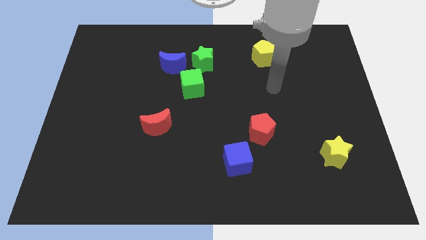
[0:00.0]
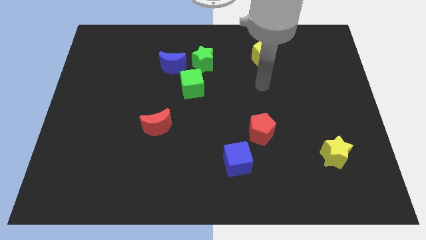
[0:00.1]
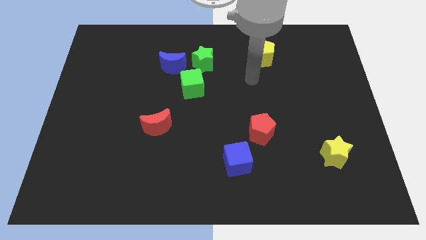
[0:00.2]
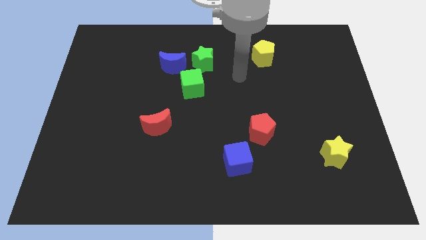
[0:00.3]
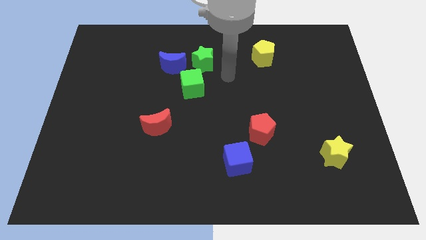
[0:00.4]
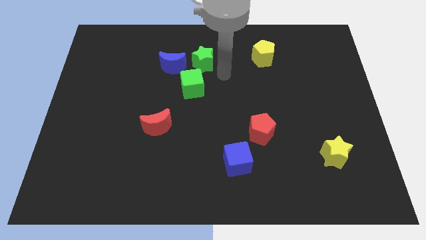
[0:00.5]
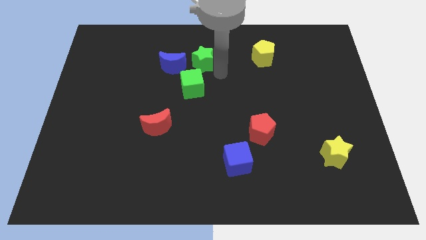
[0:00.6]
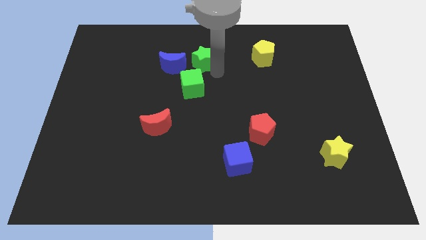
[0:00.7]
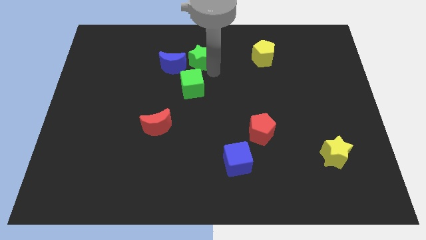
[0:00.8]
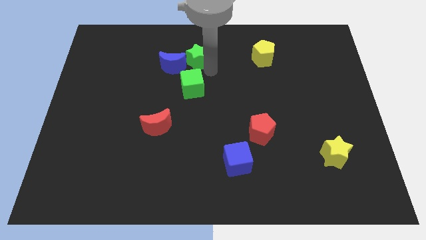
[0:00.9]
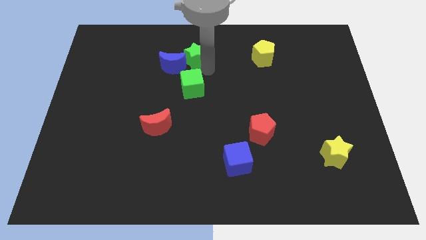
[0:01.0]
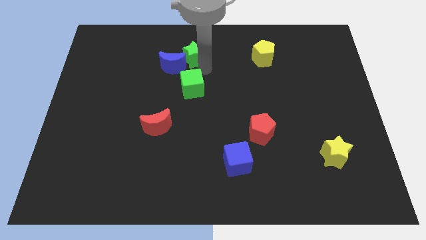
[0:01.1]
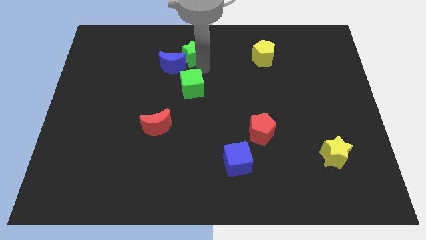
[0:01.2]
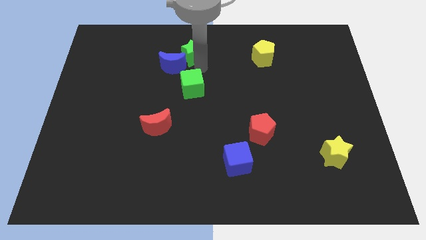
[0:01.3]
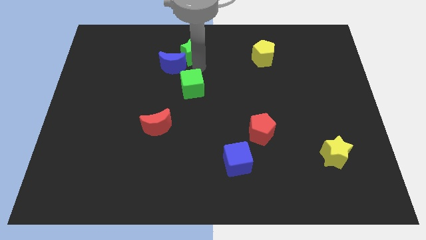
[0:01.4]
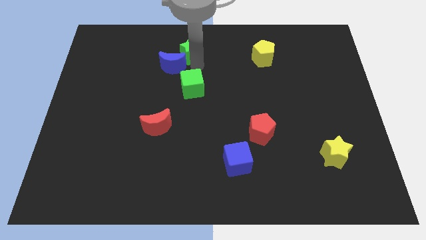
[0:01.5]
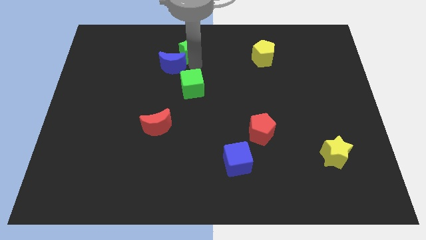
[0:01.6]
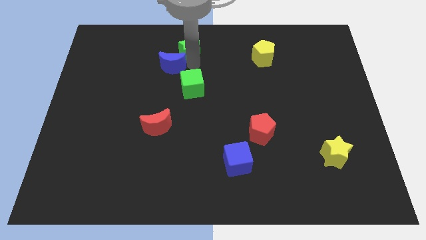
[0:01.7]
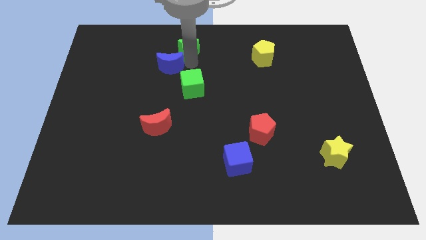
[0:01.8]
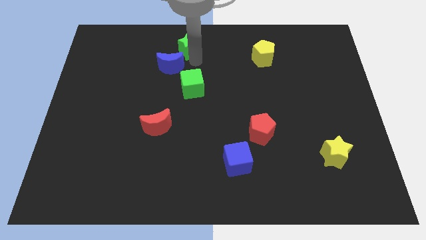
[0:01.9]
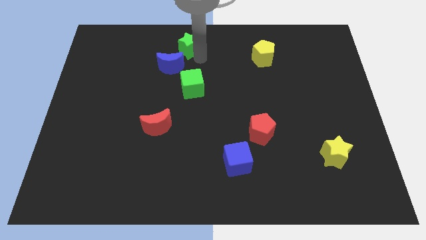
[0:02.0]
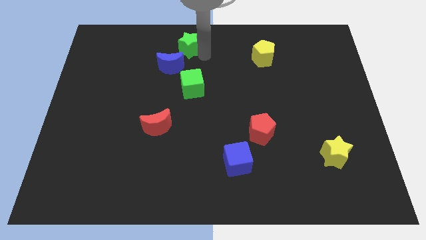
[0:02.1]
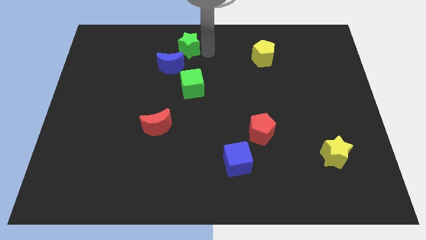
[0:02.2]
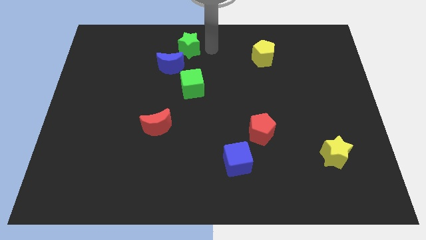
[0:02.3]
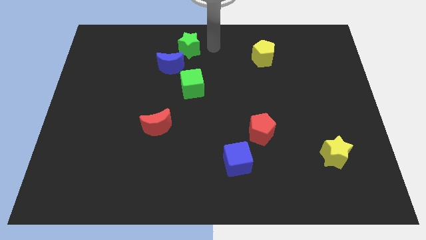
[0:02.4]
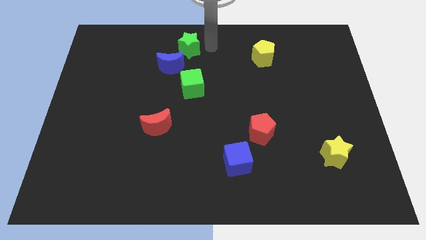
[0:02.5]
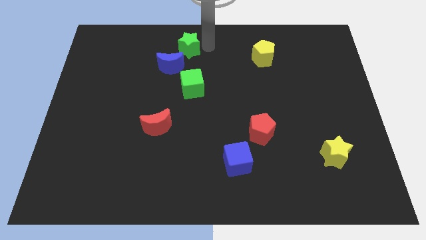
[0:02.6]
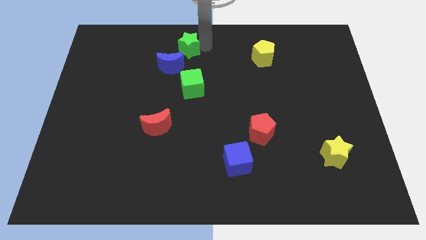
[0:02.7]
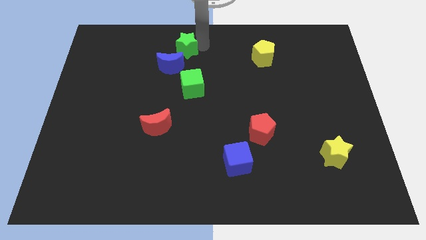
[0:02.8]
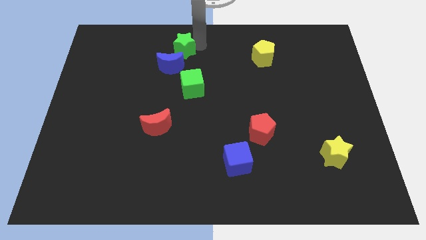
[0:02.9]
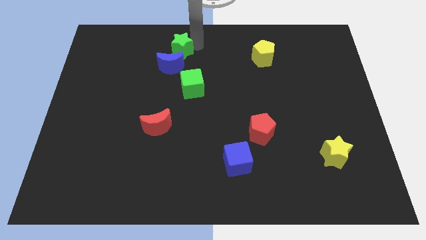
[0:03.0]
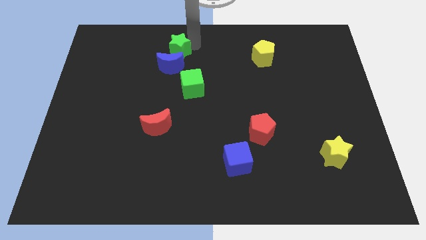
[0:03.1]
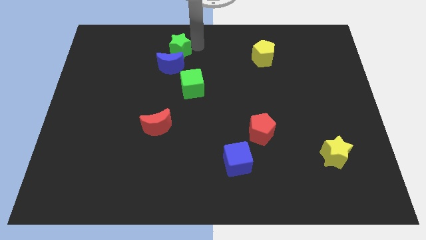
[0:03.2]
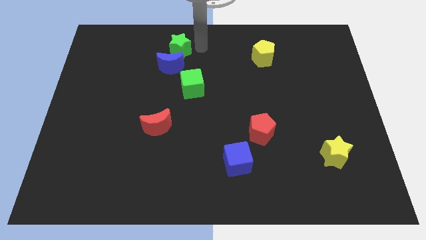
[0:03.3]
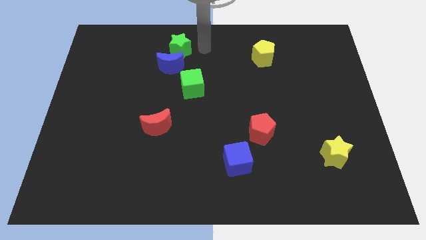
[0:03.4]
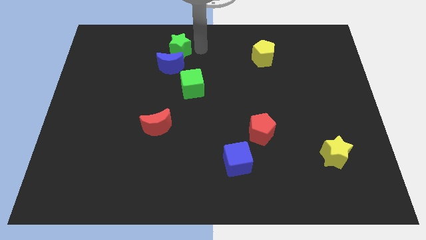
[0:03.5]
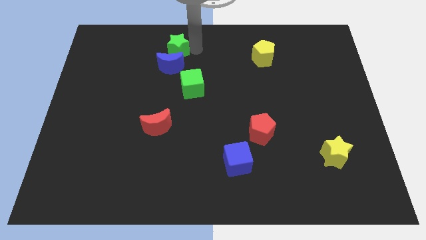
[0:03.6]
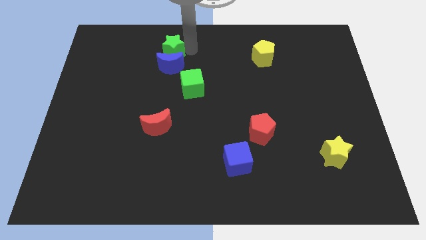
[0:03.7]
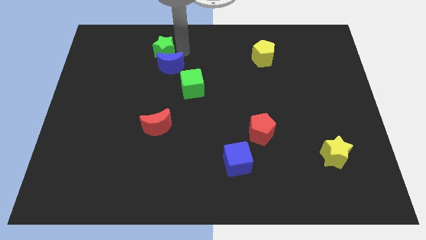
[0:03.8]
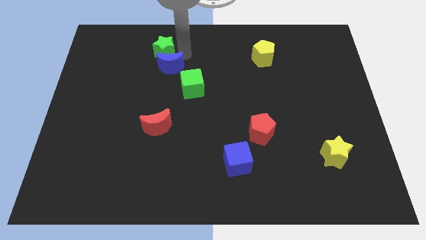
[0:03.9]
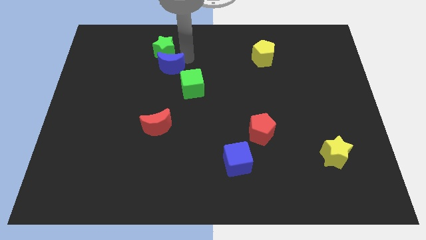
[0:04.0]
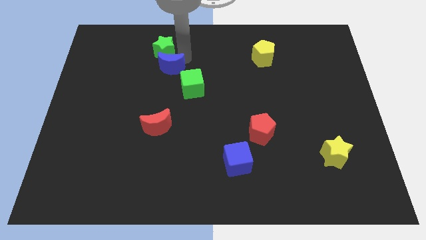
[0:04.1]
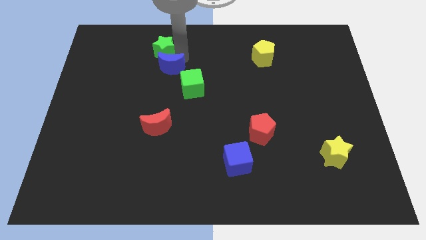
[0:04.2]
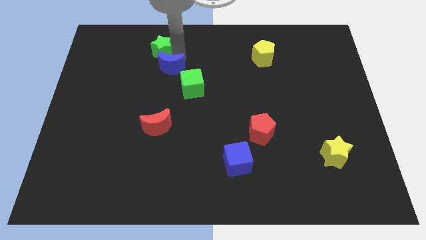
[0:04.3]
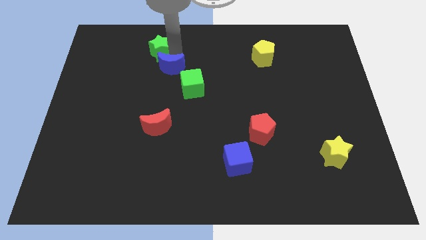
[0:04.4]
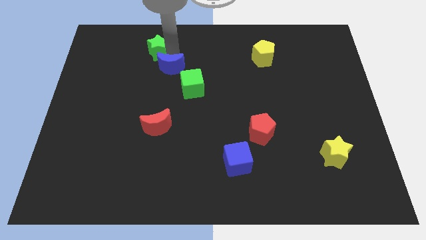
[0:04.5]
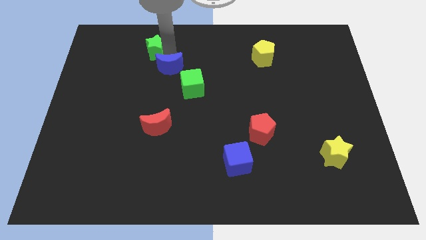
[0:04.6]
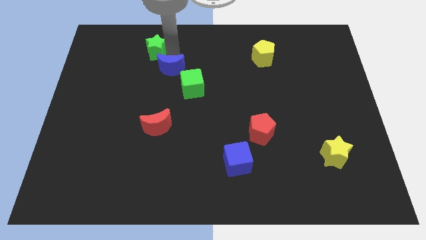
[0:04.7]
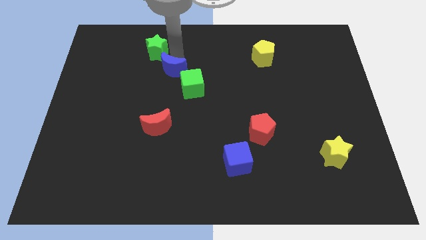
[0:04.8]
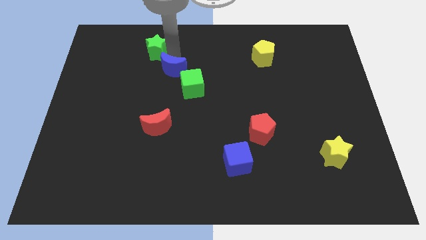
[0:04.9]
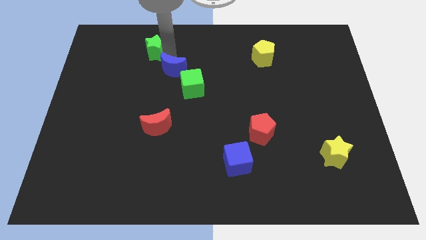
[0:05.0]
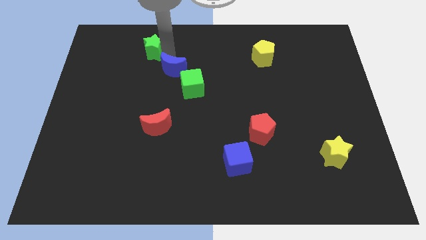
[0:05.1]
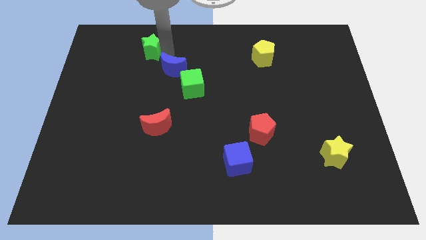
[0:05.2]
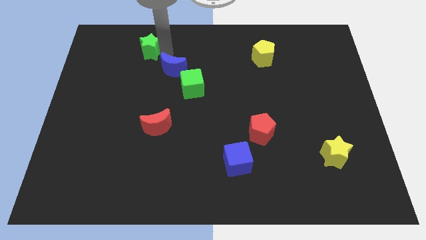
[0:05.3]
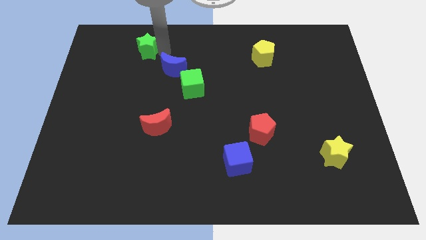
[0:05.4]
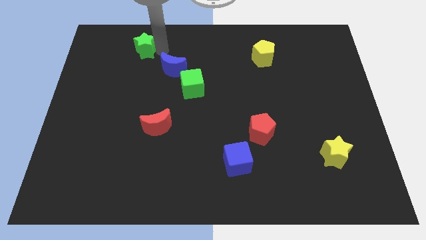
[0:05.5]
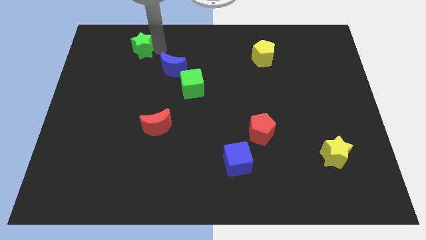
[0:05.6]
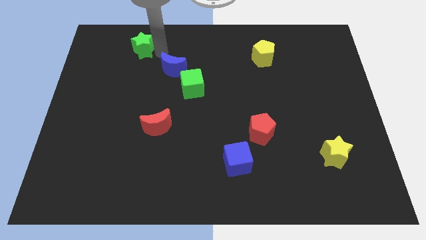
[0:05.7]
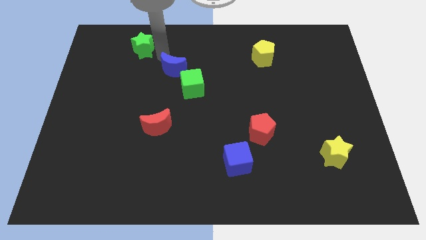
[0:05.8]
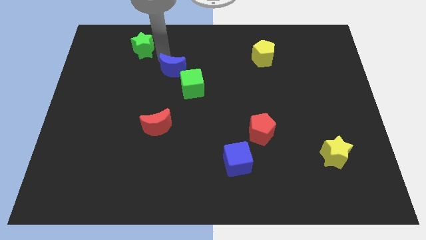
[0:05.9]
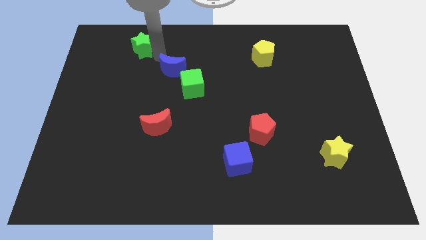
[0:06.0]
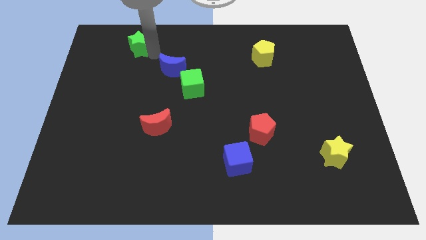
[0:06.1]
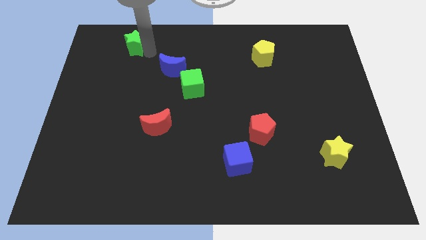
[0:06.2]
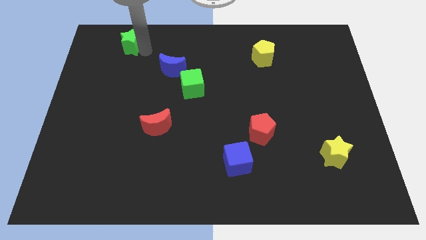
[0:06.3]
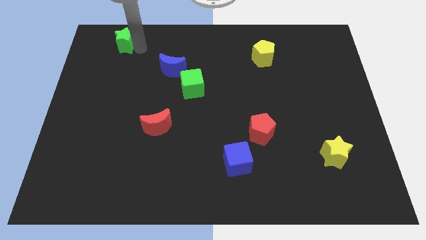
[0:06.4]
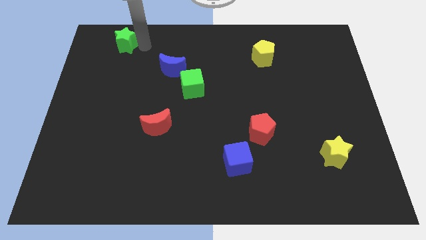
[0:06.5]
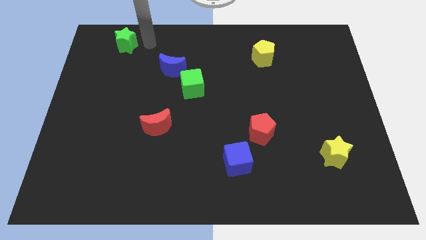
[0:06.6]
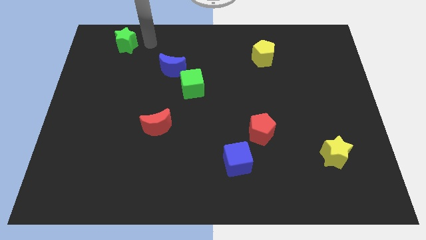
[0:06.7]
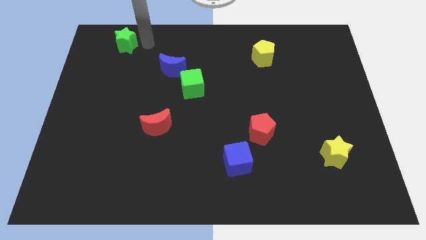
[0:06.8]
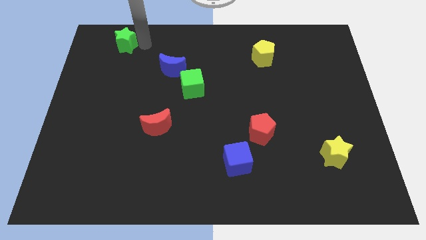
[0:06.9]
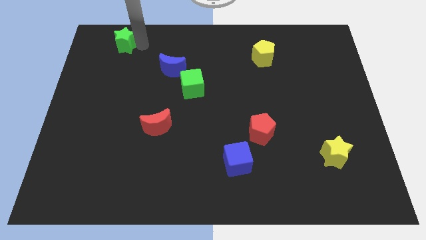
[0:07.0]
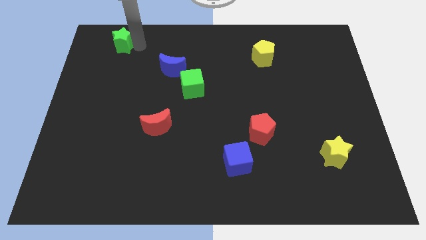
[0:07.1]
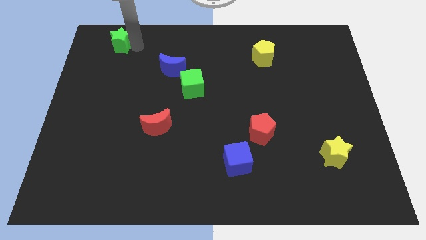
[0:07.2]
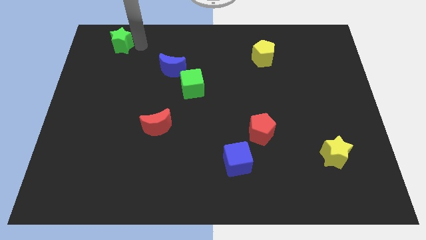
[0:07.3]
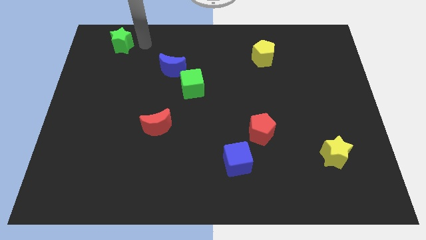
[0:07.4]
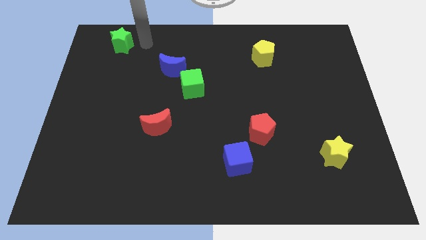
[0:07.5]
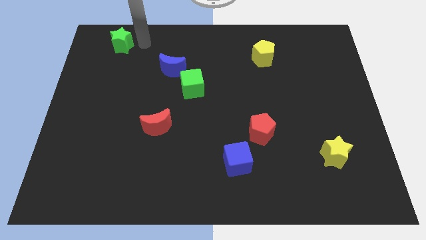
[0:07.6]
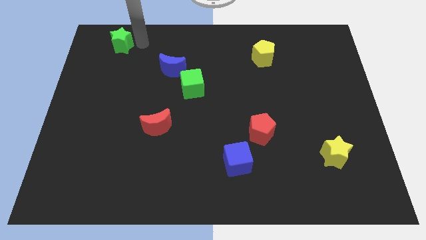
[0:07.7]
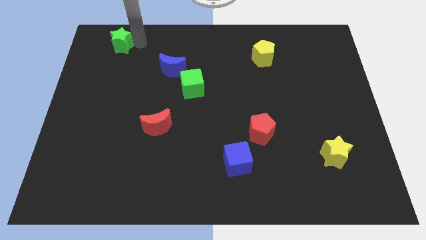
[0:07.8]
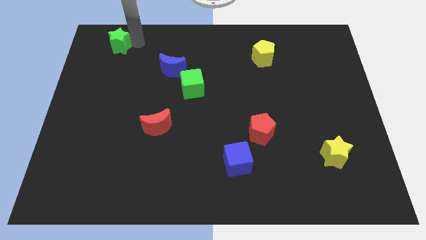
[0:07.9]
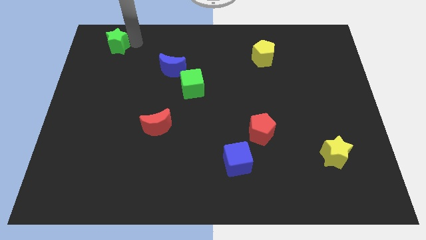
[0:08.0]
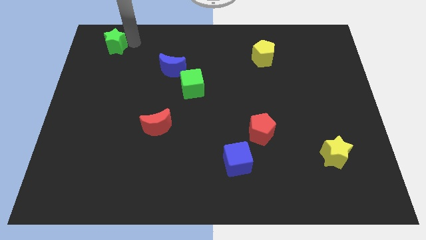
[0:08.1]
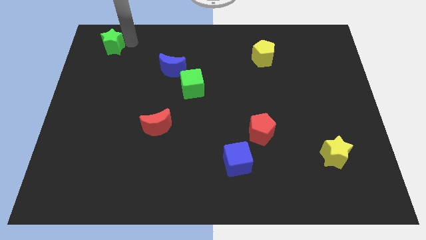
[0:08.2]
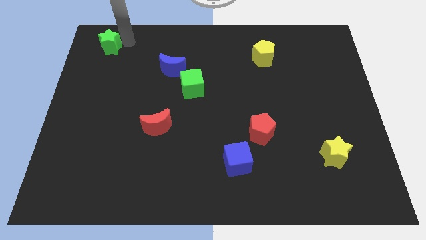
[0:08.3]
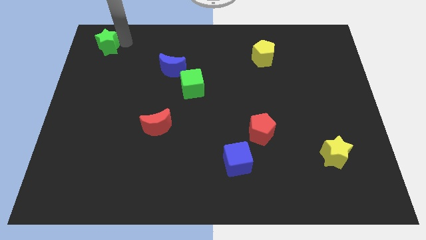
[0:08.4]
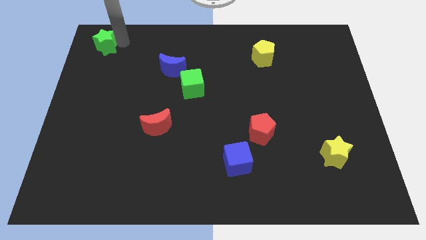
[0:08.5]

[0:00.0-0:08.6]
slide the green star to the top left corner
